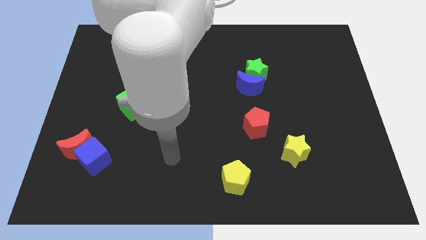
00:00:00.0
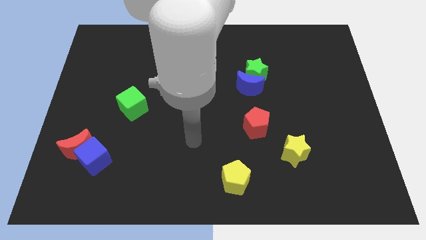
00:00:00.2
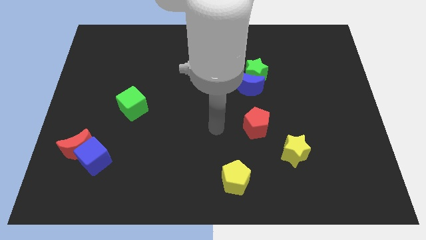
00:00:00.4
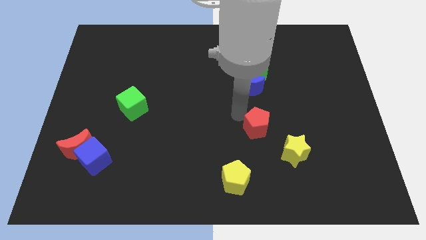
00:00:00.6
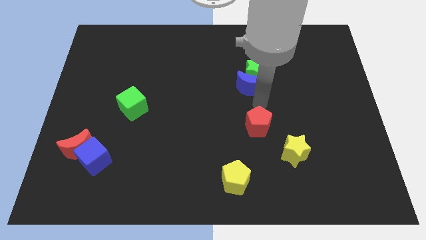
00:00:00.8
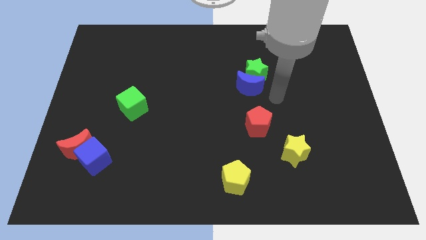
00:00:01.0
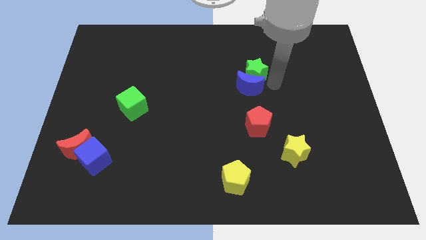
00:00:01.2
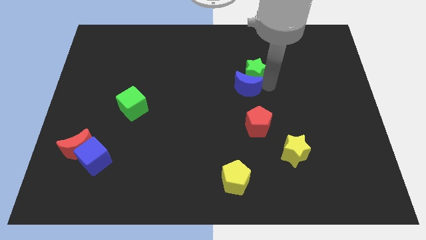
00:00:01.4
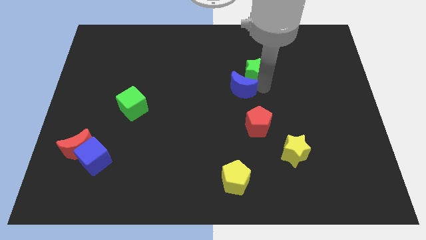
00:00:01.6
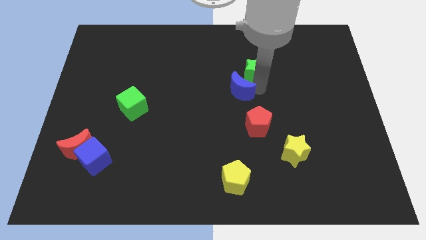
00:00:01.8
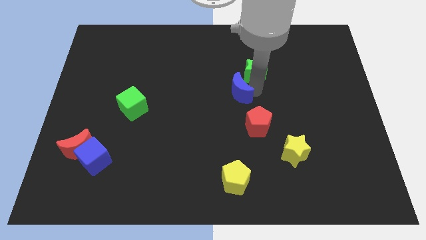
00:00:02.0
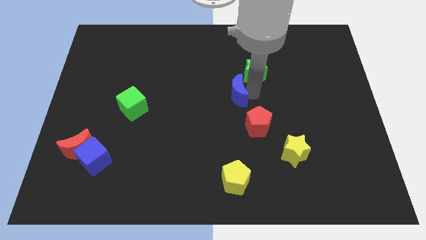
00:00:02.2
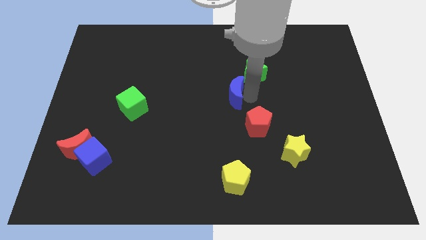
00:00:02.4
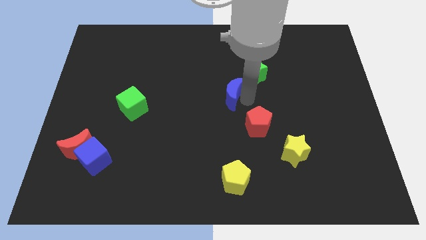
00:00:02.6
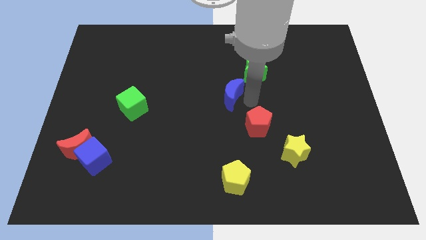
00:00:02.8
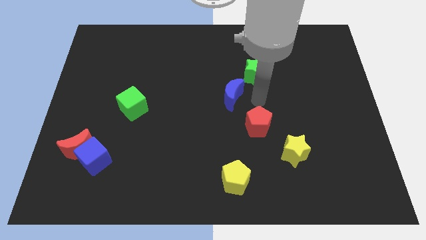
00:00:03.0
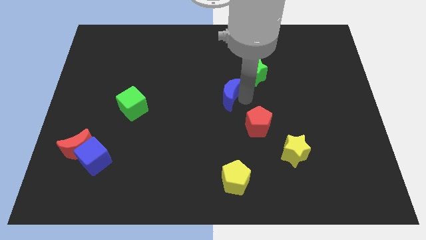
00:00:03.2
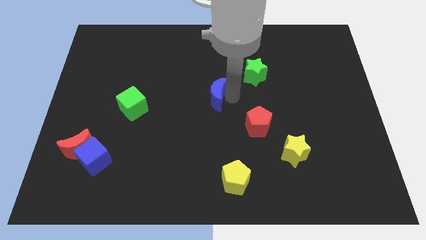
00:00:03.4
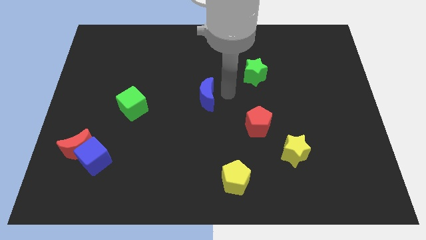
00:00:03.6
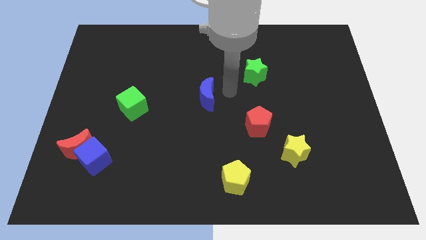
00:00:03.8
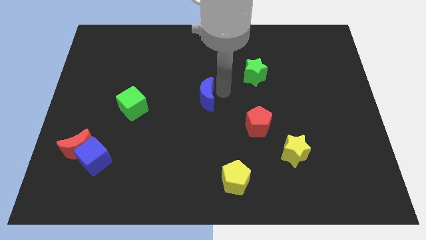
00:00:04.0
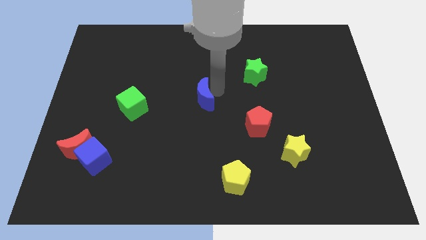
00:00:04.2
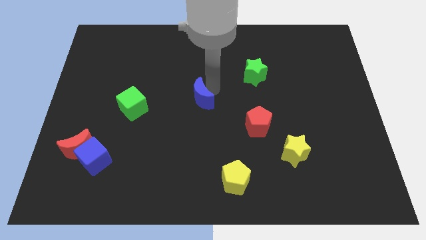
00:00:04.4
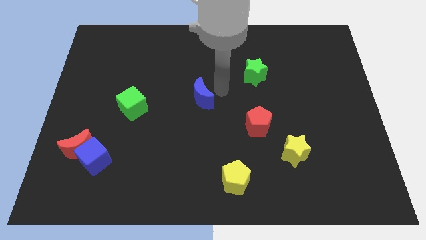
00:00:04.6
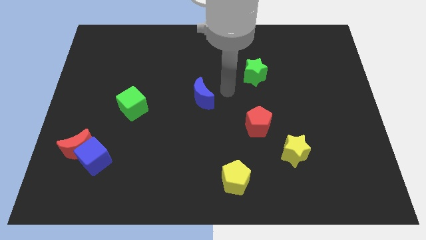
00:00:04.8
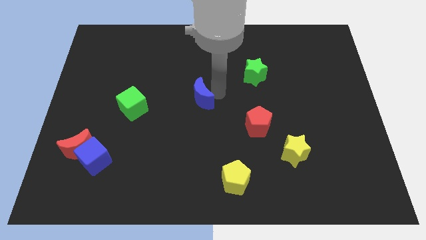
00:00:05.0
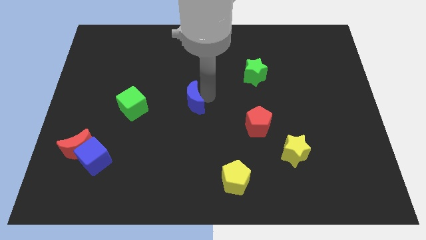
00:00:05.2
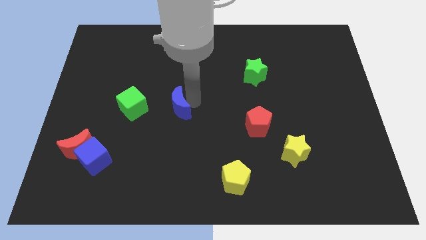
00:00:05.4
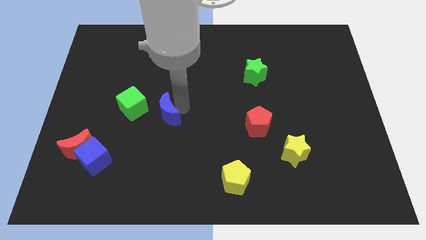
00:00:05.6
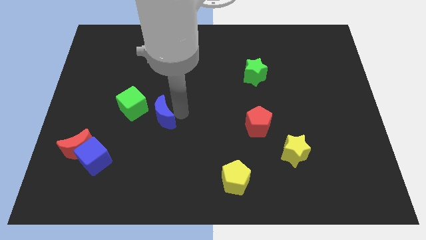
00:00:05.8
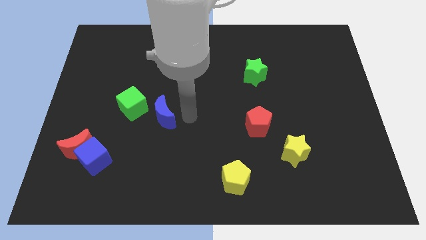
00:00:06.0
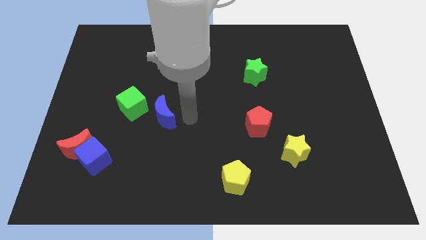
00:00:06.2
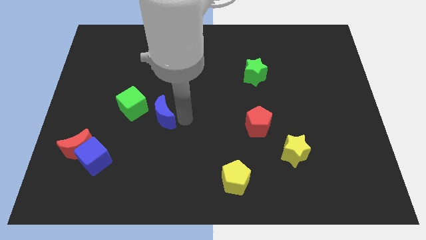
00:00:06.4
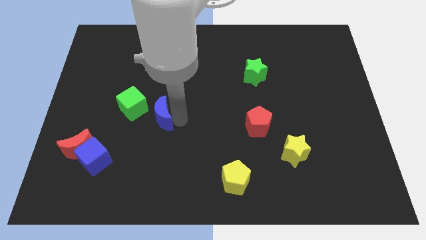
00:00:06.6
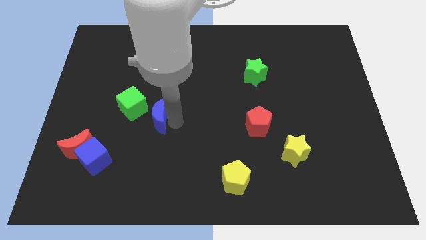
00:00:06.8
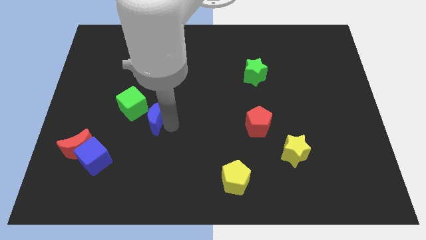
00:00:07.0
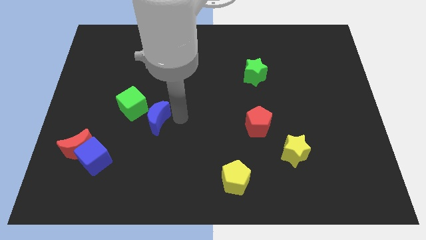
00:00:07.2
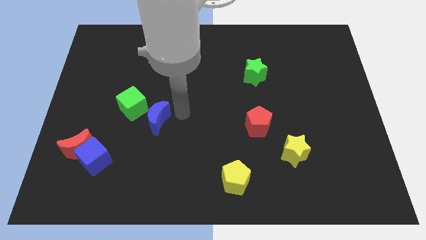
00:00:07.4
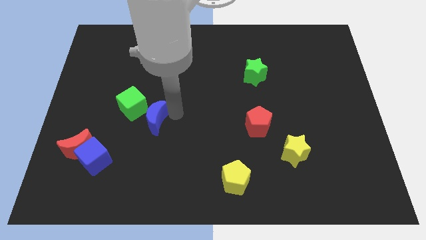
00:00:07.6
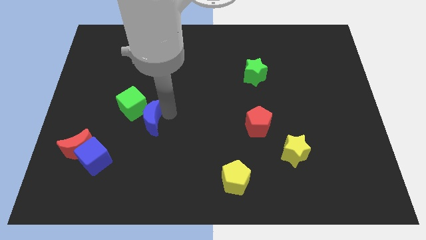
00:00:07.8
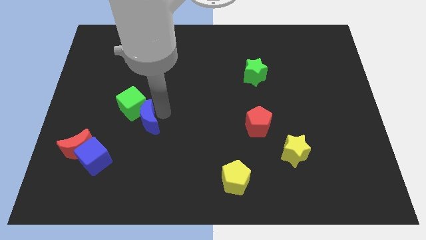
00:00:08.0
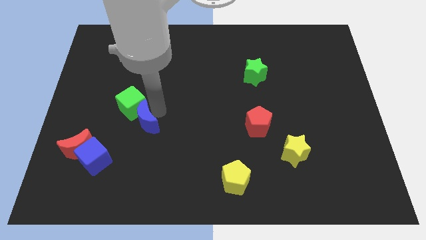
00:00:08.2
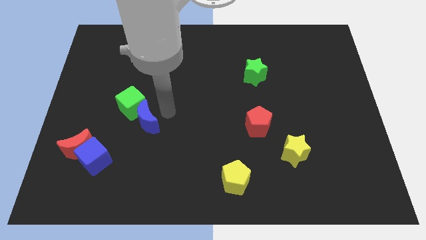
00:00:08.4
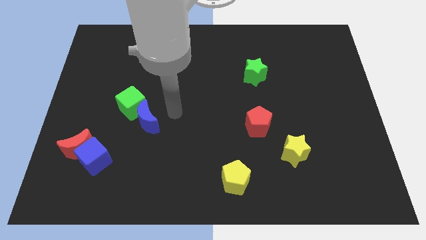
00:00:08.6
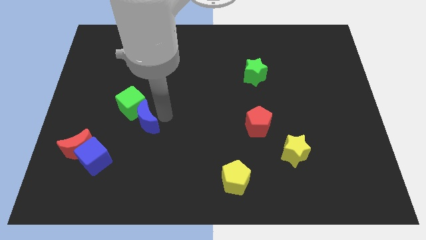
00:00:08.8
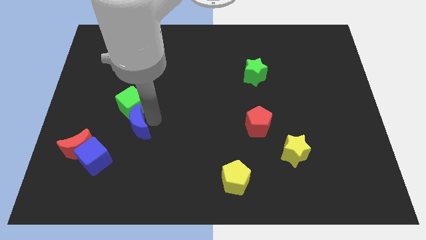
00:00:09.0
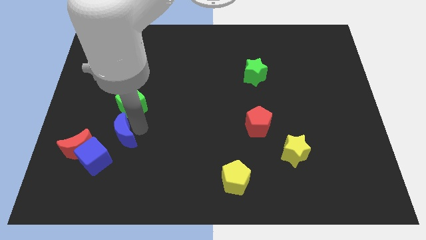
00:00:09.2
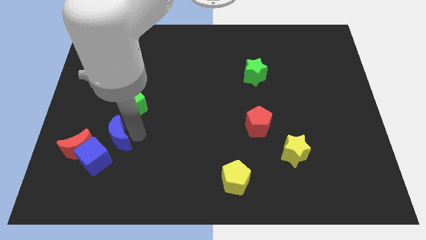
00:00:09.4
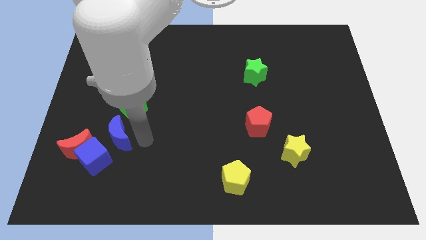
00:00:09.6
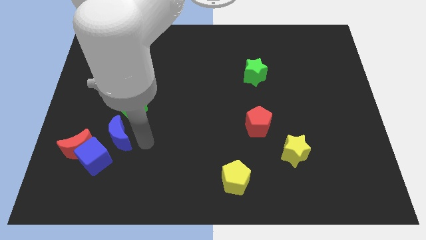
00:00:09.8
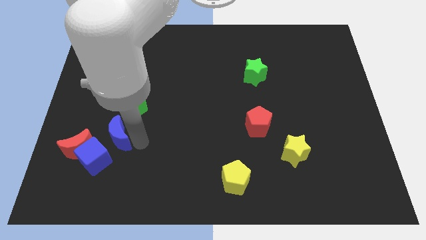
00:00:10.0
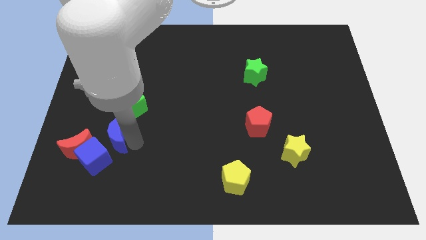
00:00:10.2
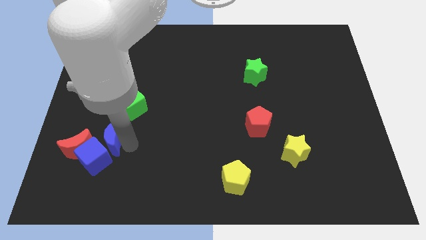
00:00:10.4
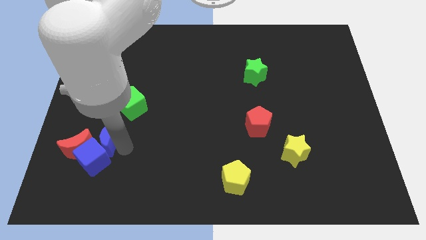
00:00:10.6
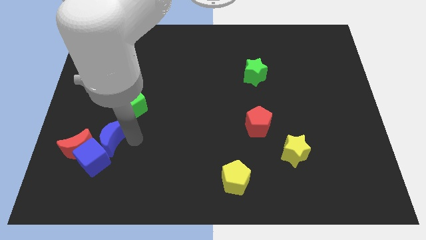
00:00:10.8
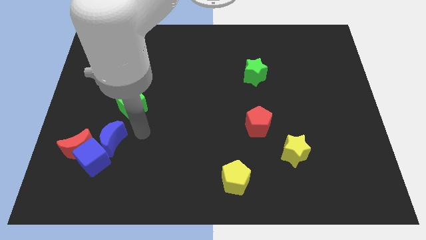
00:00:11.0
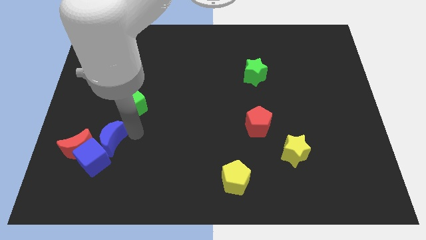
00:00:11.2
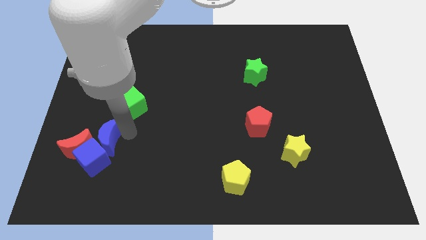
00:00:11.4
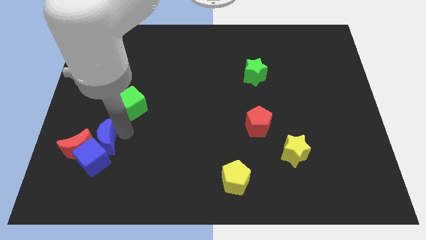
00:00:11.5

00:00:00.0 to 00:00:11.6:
put the blue moon towards the red moon

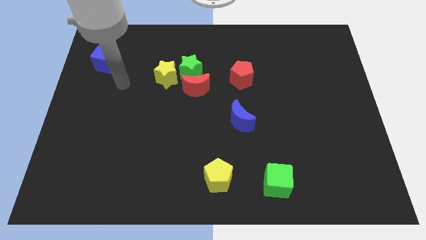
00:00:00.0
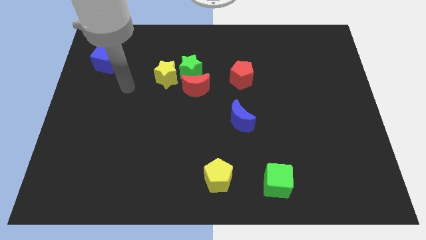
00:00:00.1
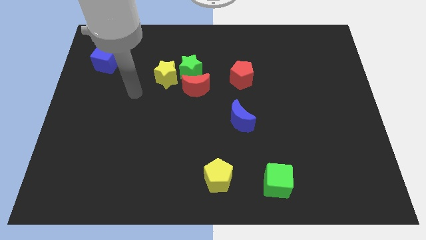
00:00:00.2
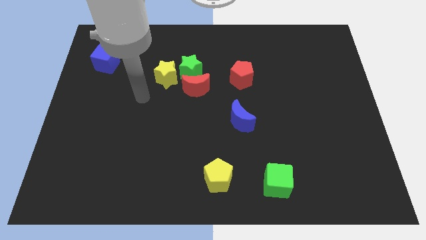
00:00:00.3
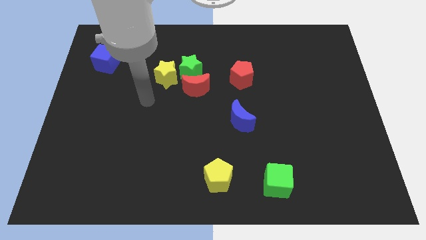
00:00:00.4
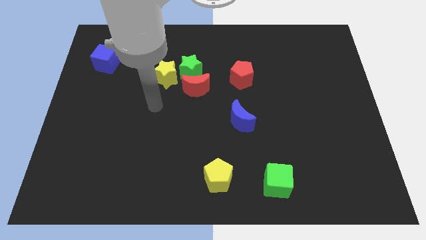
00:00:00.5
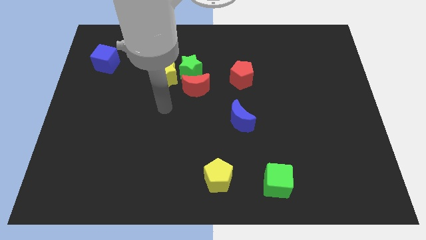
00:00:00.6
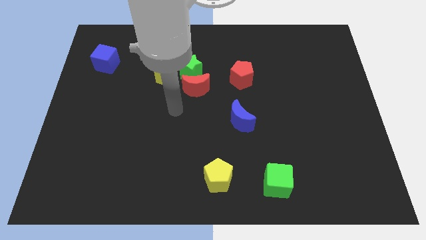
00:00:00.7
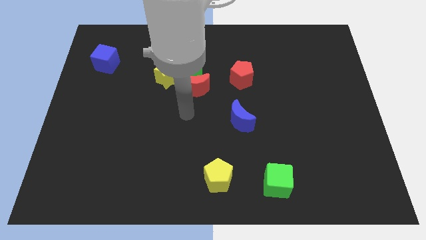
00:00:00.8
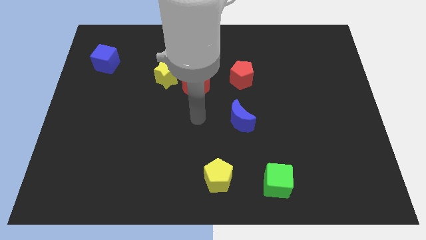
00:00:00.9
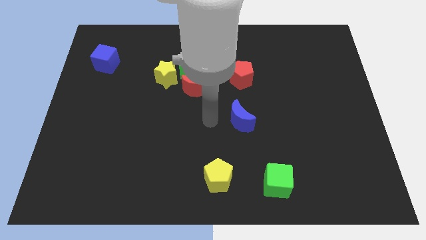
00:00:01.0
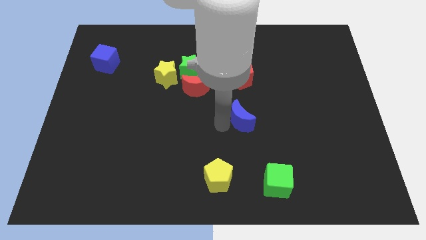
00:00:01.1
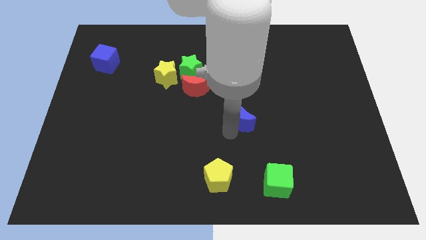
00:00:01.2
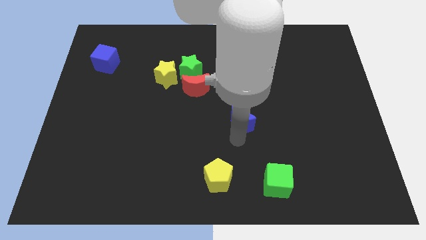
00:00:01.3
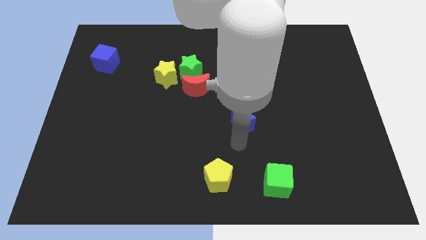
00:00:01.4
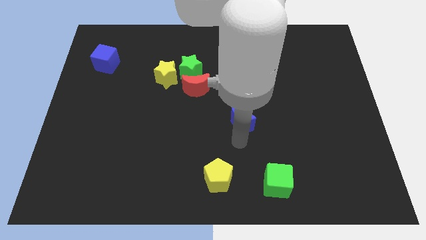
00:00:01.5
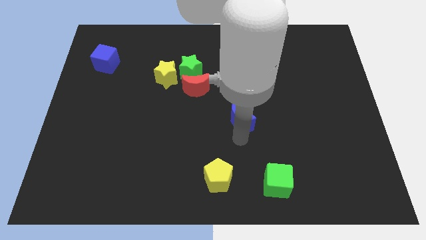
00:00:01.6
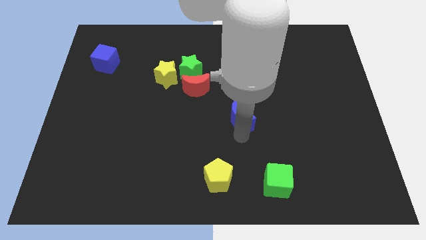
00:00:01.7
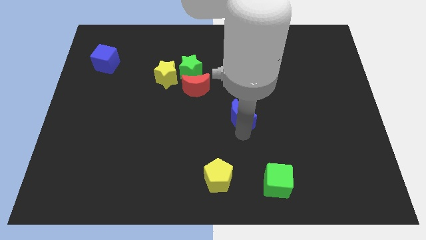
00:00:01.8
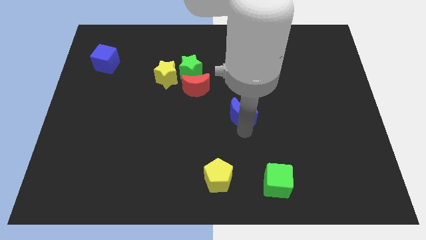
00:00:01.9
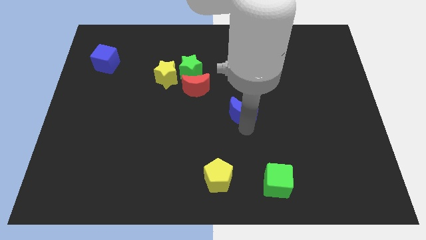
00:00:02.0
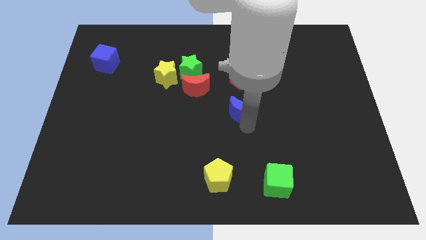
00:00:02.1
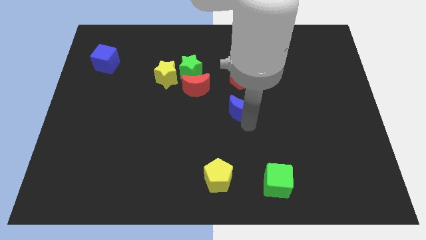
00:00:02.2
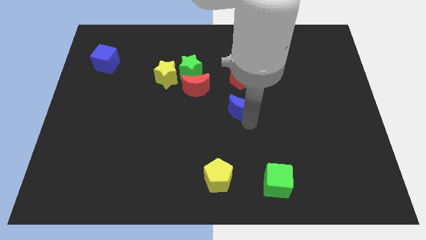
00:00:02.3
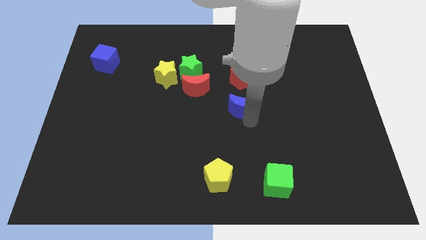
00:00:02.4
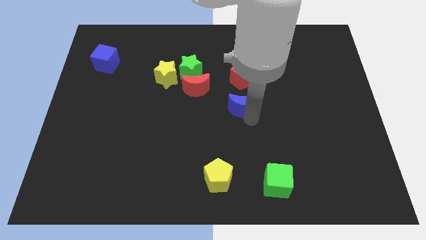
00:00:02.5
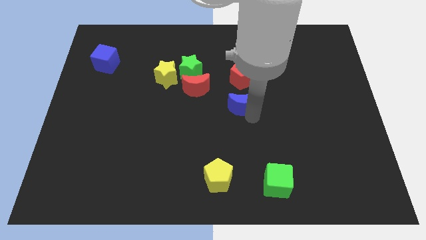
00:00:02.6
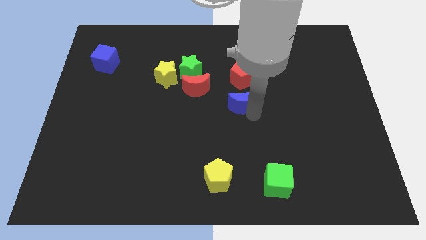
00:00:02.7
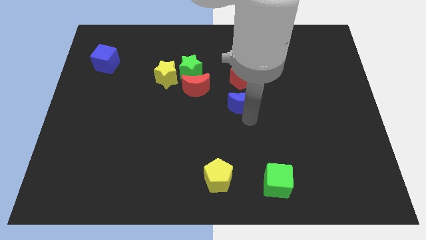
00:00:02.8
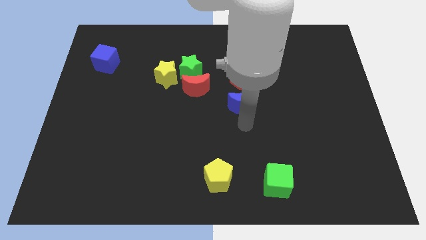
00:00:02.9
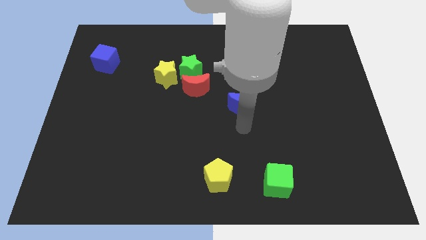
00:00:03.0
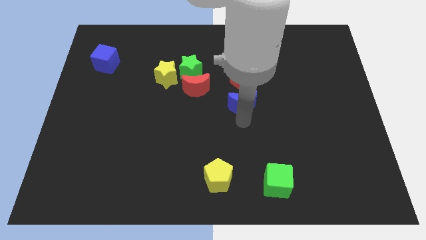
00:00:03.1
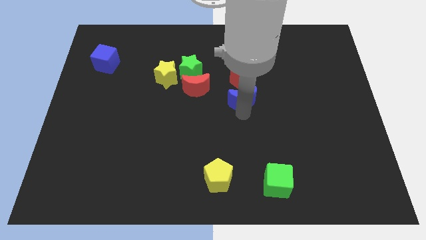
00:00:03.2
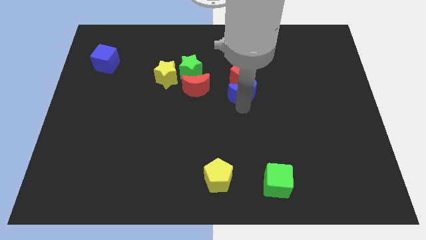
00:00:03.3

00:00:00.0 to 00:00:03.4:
push the blue moon next to the red pentagon
